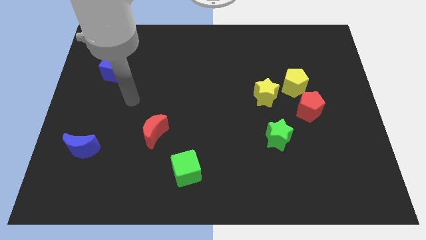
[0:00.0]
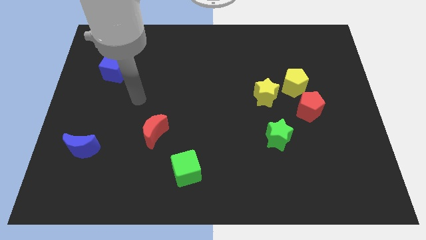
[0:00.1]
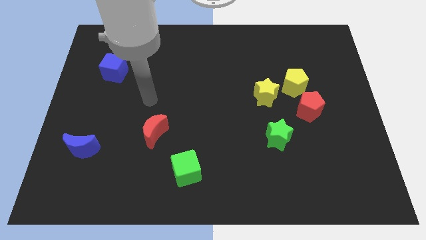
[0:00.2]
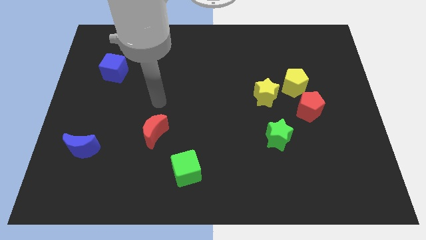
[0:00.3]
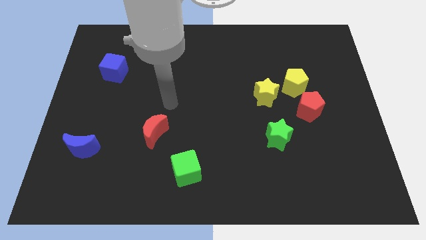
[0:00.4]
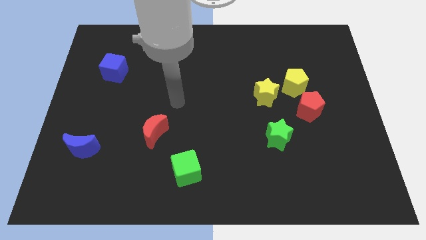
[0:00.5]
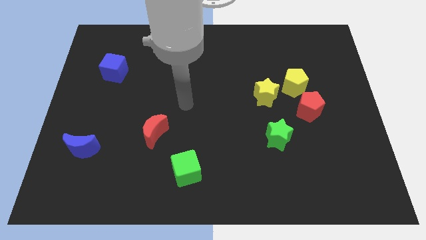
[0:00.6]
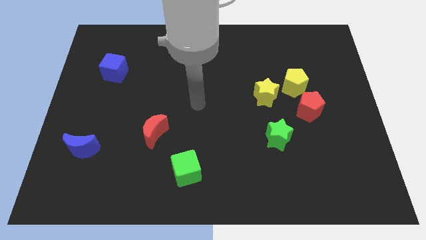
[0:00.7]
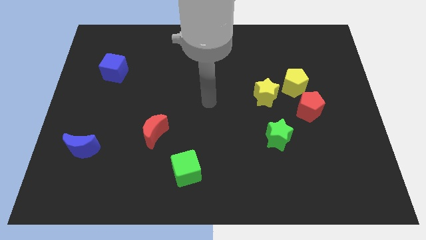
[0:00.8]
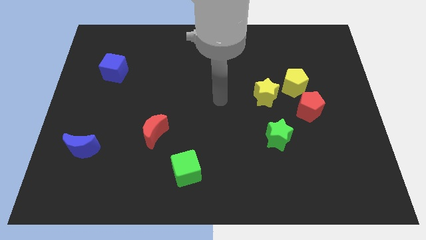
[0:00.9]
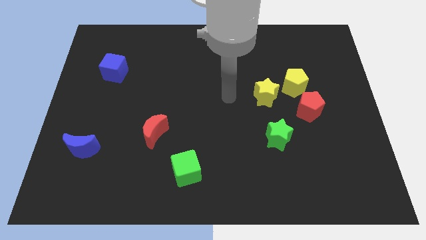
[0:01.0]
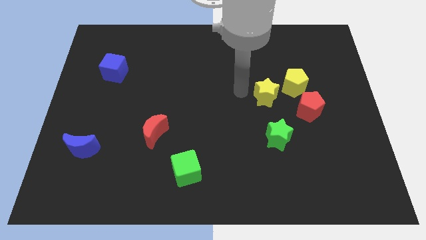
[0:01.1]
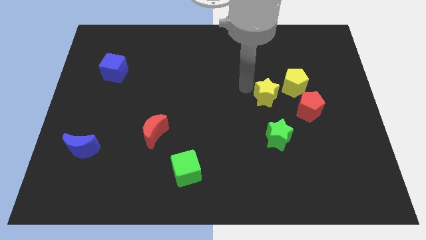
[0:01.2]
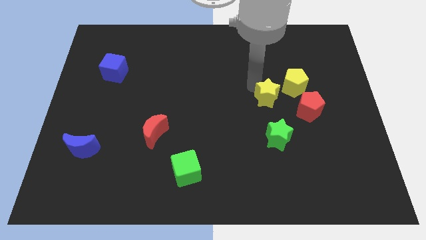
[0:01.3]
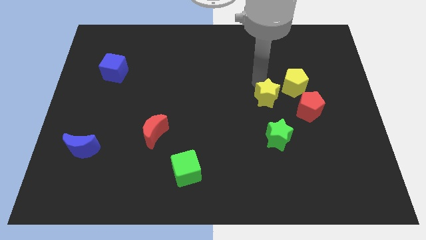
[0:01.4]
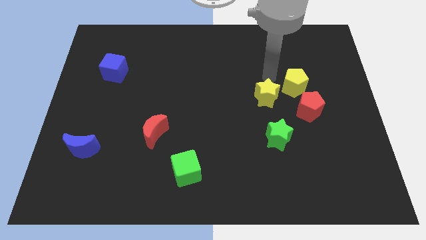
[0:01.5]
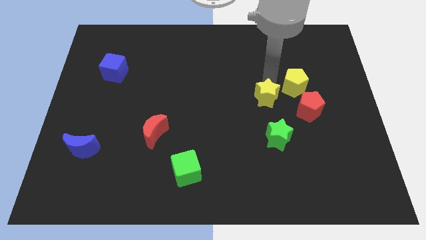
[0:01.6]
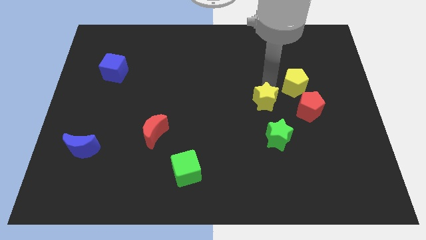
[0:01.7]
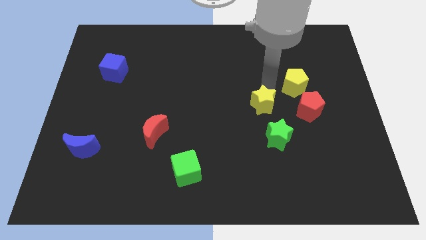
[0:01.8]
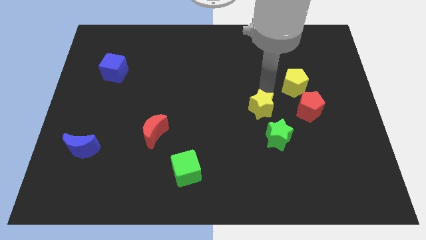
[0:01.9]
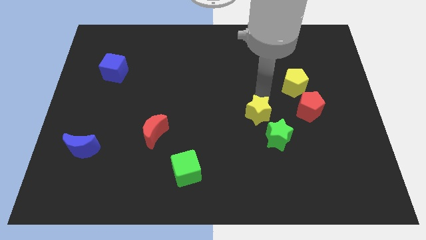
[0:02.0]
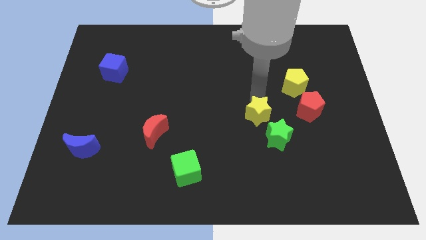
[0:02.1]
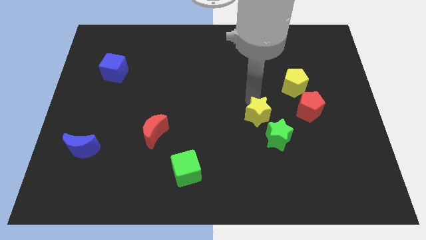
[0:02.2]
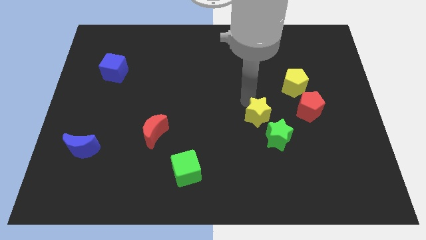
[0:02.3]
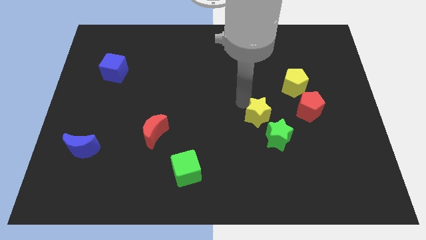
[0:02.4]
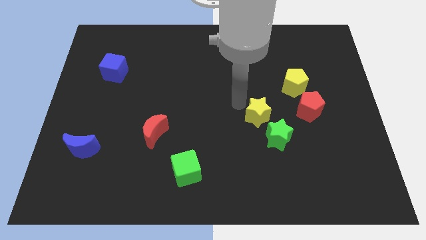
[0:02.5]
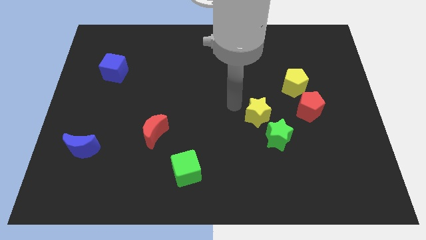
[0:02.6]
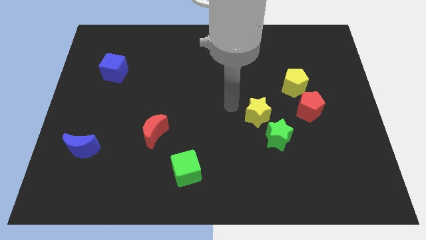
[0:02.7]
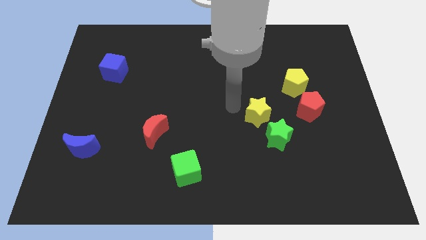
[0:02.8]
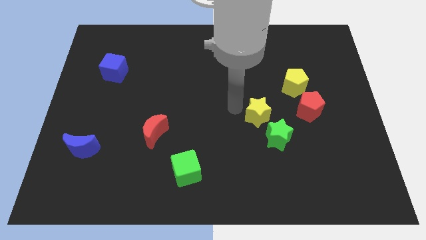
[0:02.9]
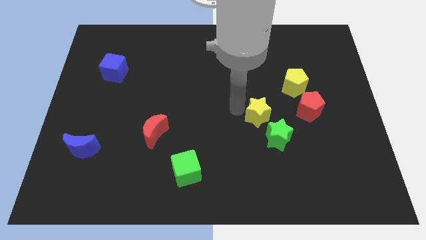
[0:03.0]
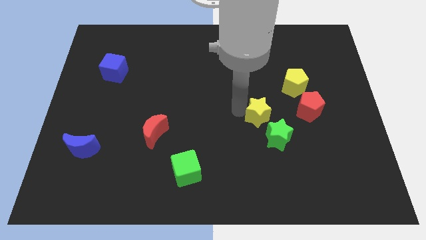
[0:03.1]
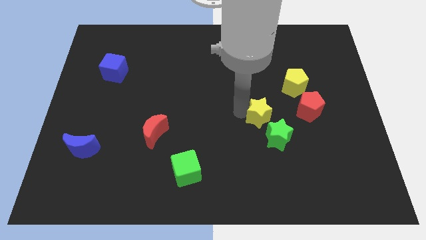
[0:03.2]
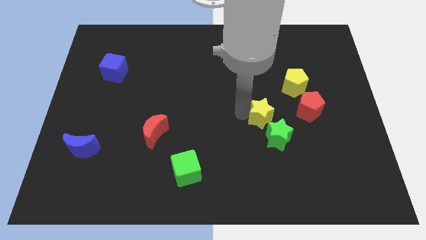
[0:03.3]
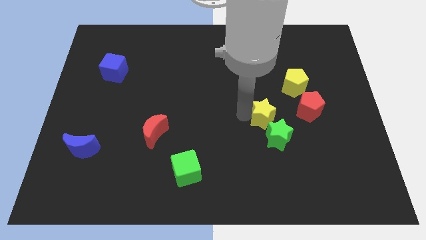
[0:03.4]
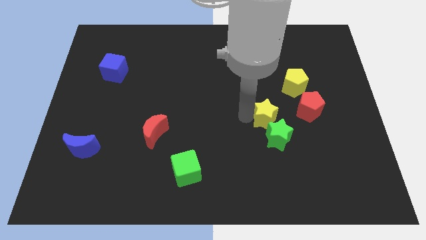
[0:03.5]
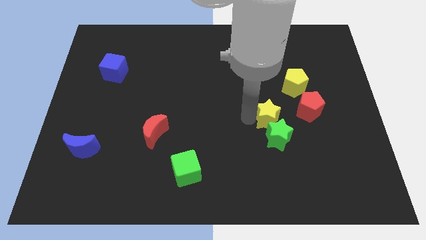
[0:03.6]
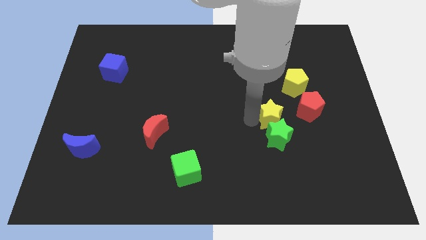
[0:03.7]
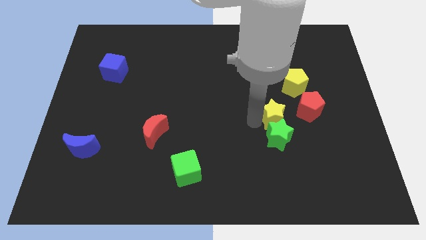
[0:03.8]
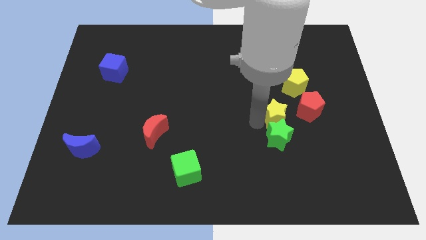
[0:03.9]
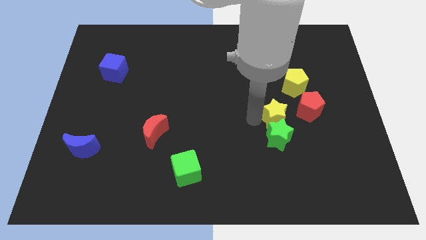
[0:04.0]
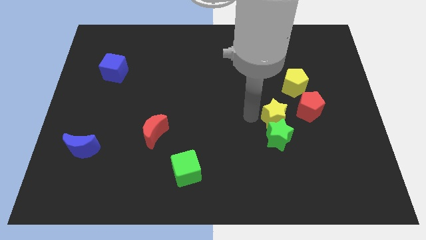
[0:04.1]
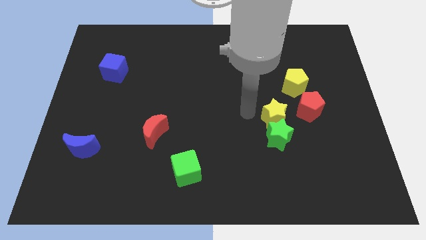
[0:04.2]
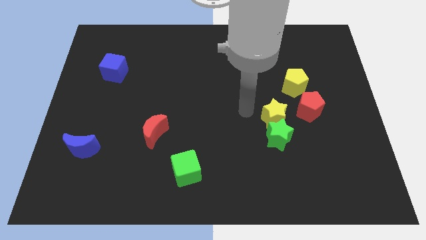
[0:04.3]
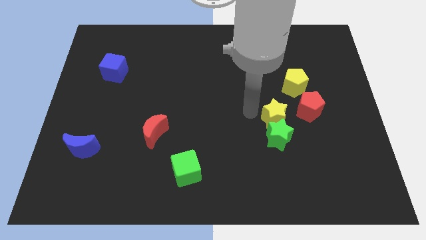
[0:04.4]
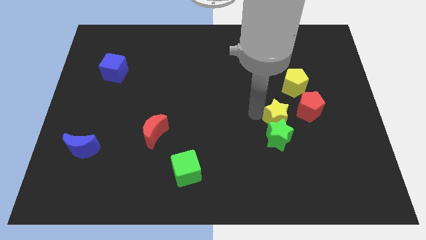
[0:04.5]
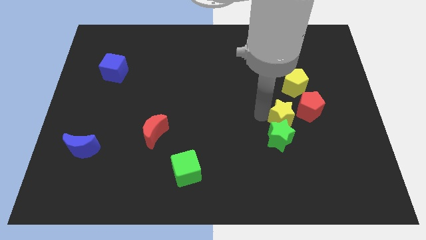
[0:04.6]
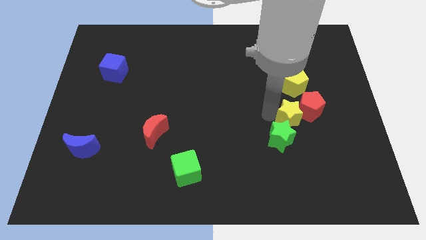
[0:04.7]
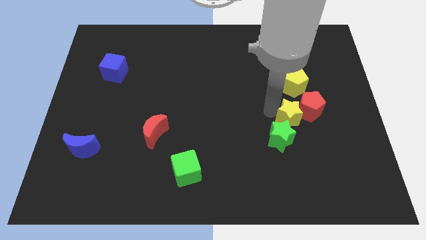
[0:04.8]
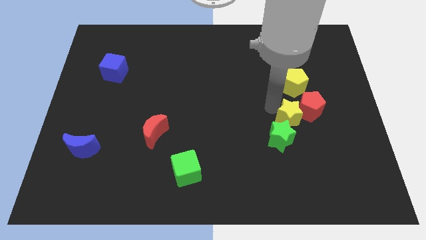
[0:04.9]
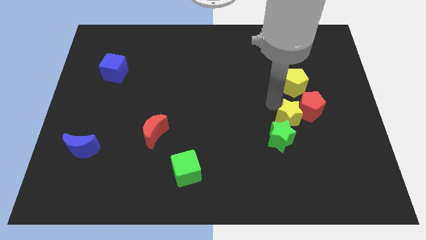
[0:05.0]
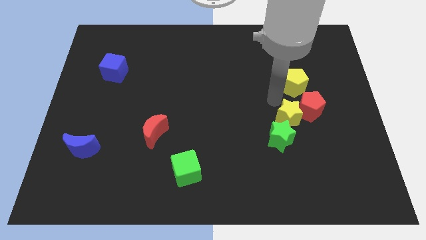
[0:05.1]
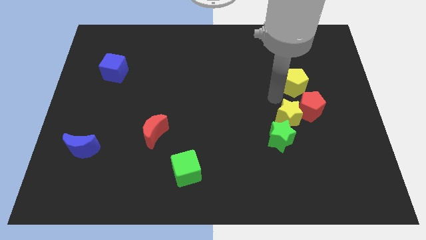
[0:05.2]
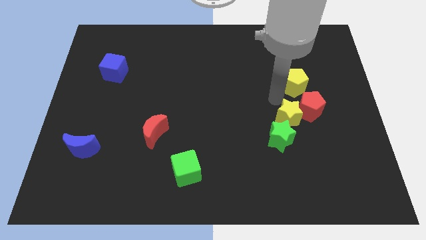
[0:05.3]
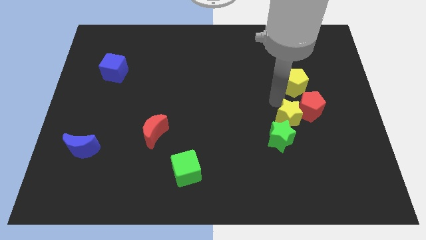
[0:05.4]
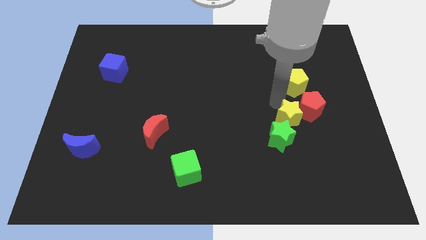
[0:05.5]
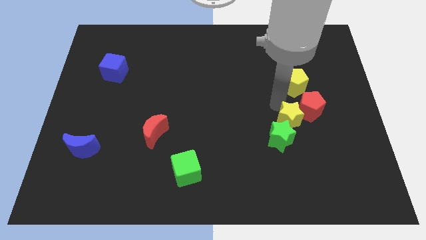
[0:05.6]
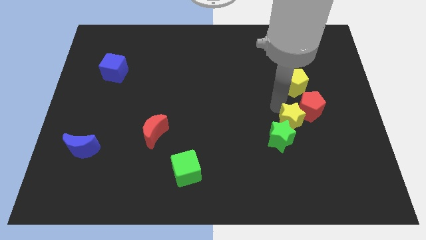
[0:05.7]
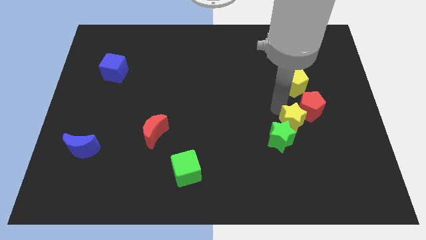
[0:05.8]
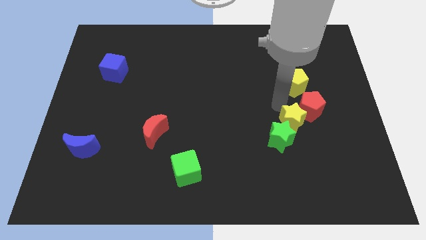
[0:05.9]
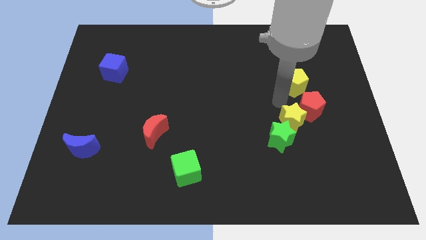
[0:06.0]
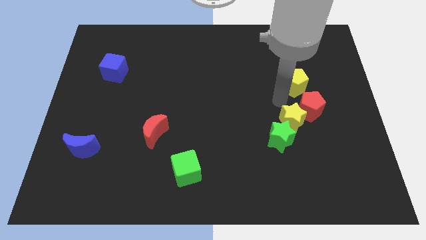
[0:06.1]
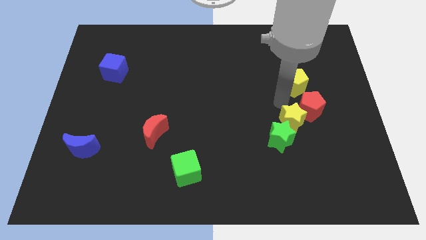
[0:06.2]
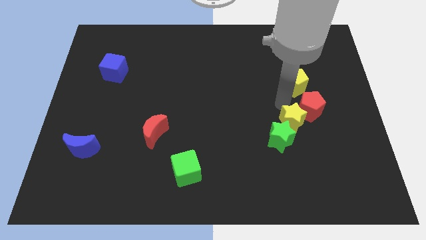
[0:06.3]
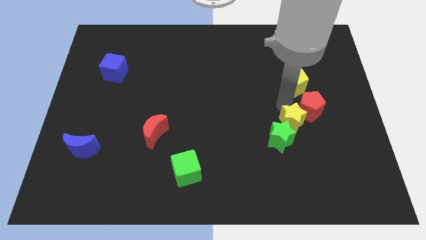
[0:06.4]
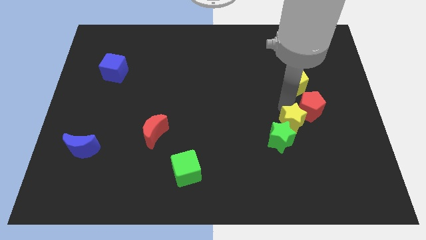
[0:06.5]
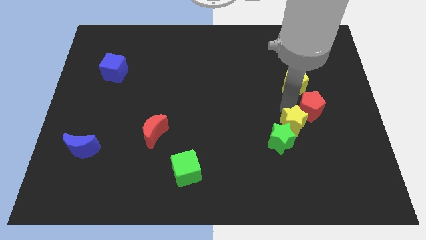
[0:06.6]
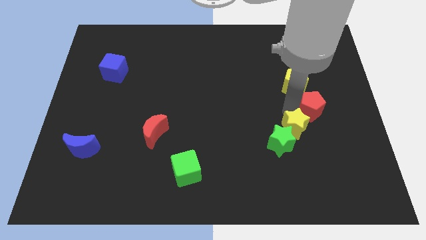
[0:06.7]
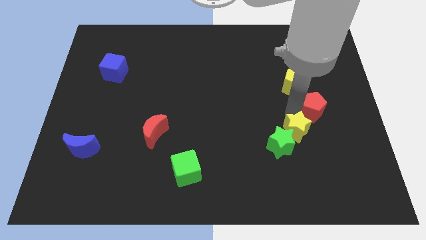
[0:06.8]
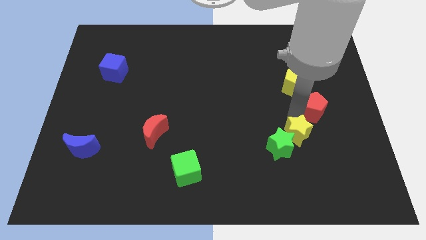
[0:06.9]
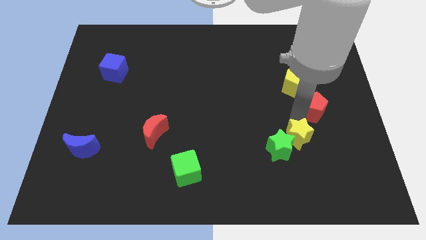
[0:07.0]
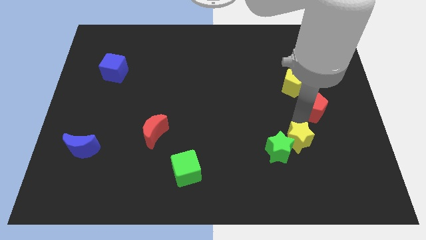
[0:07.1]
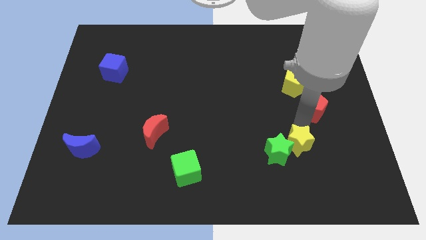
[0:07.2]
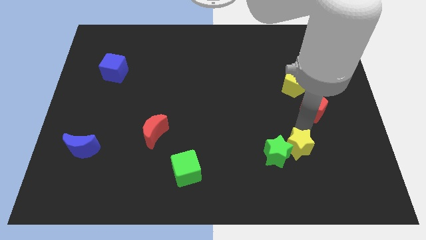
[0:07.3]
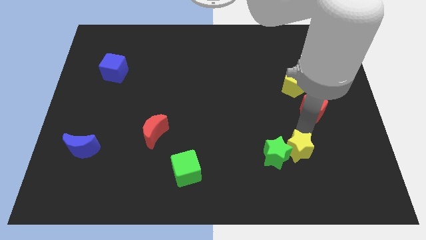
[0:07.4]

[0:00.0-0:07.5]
move the yellow star diagonally down and to the right of the green star
